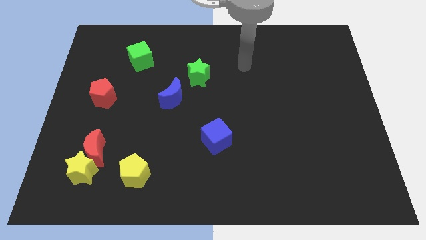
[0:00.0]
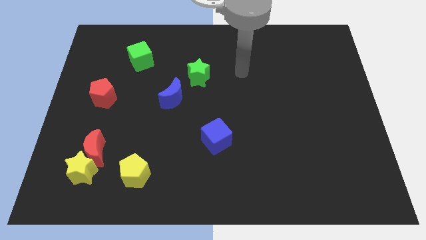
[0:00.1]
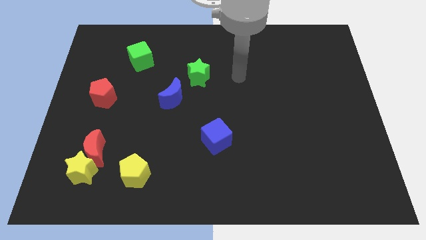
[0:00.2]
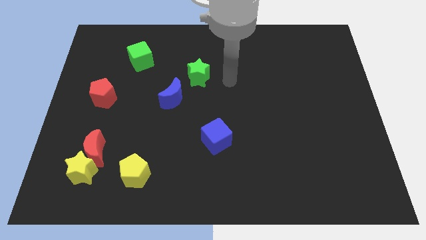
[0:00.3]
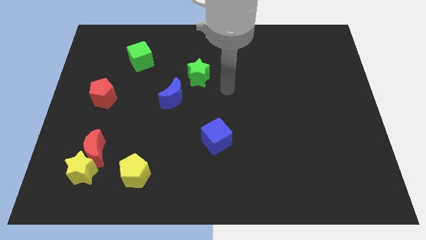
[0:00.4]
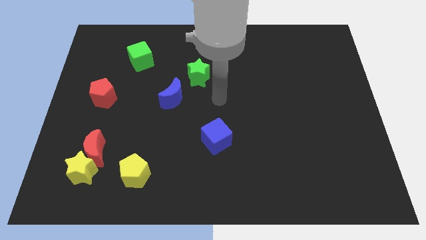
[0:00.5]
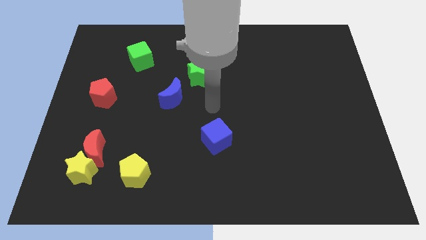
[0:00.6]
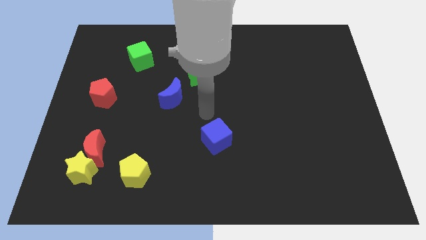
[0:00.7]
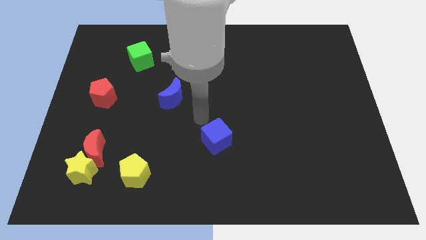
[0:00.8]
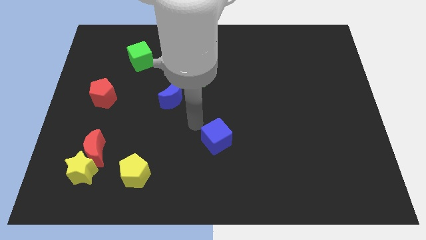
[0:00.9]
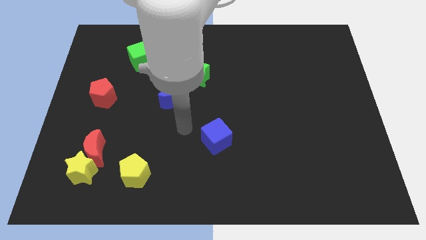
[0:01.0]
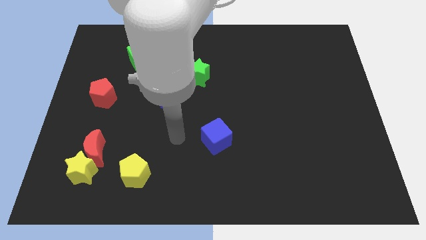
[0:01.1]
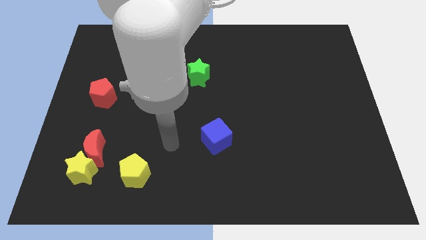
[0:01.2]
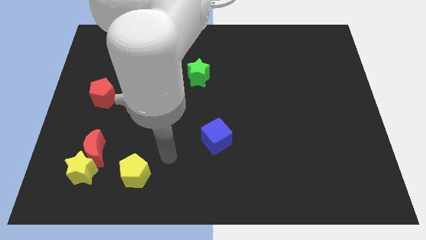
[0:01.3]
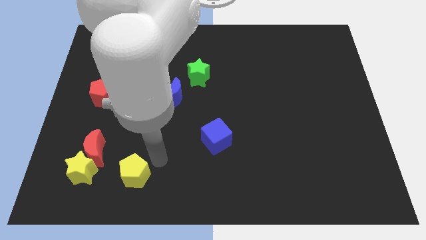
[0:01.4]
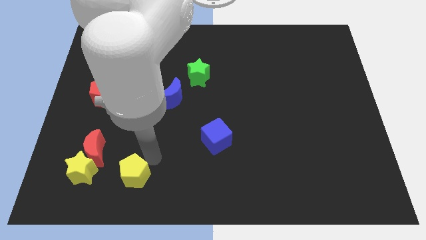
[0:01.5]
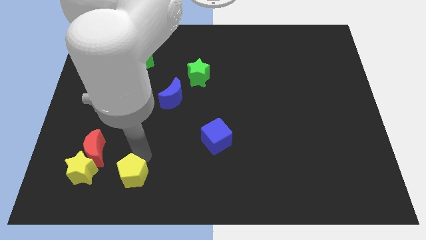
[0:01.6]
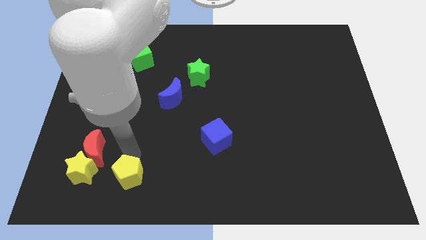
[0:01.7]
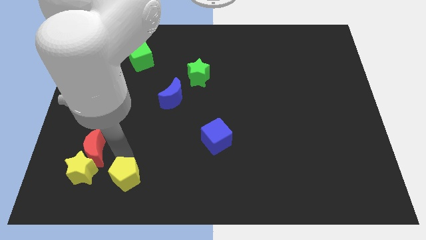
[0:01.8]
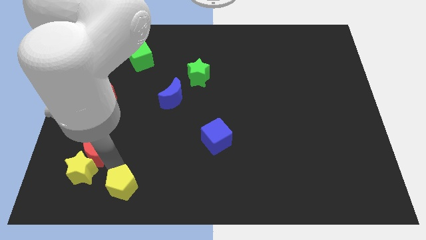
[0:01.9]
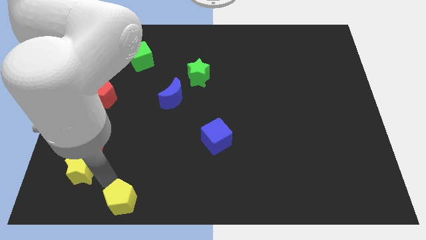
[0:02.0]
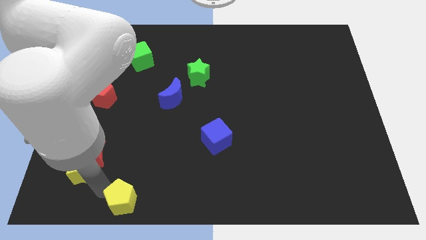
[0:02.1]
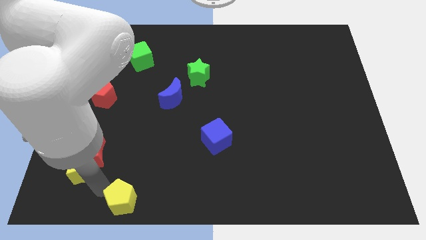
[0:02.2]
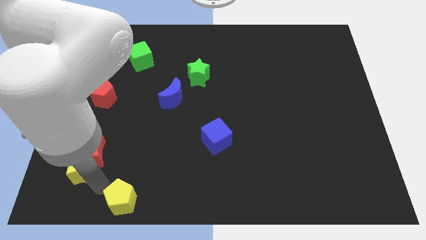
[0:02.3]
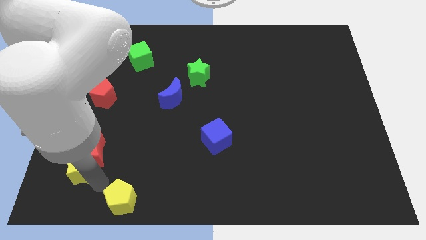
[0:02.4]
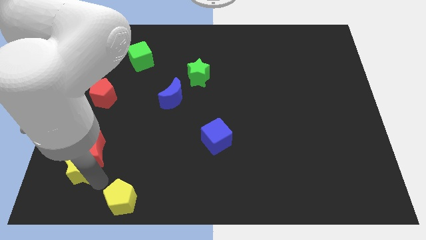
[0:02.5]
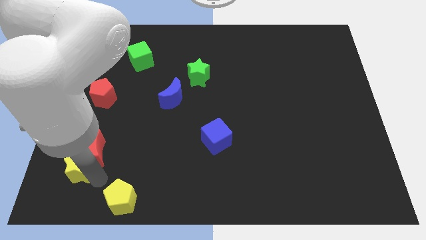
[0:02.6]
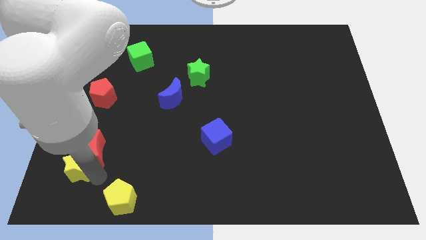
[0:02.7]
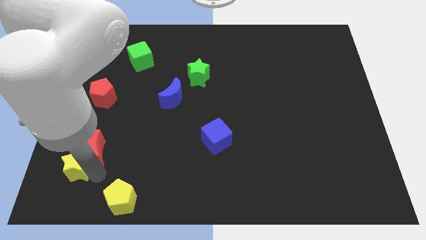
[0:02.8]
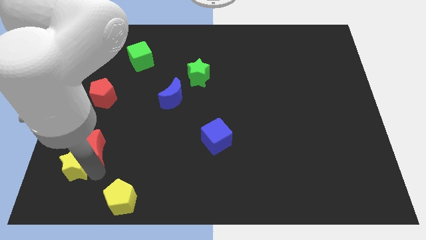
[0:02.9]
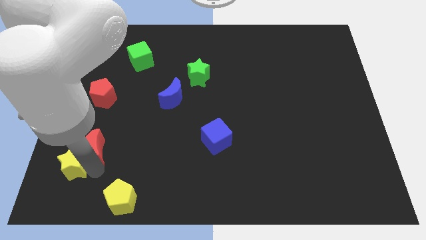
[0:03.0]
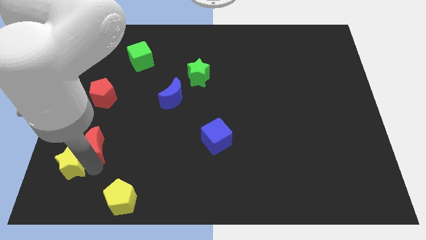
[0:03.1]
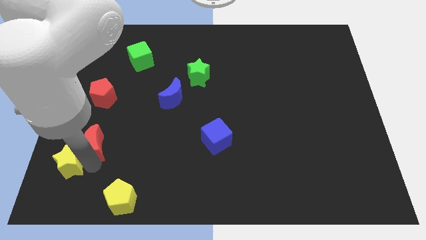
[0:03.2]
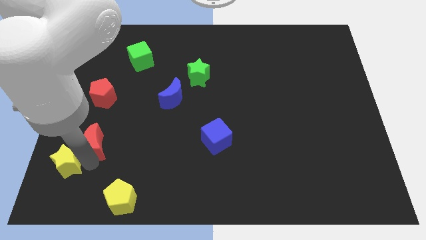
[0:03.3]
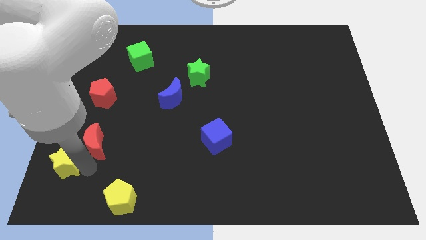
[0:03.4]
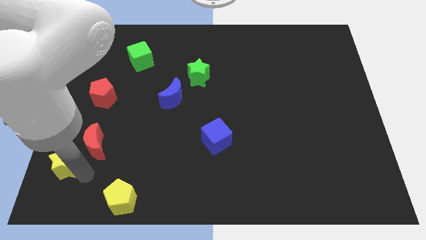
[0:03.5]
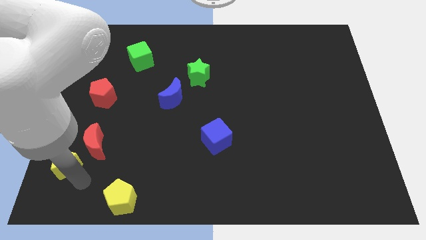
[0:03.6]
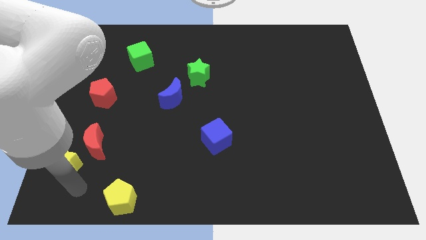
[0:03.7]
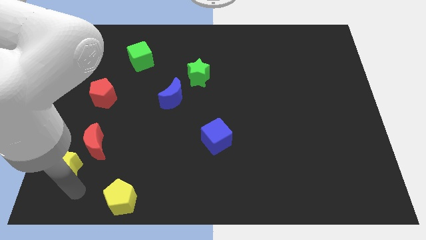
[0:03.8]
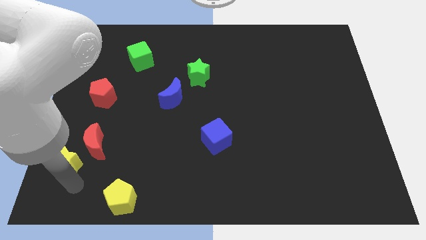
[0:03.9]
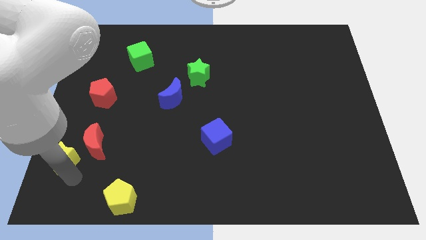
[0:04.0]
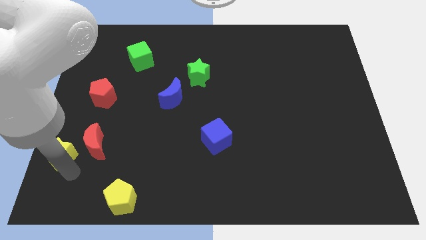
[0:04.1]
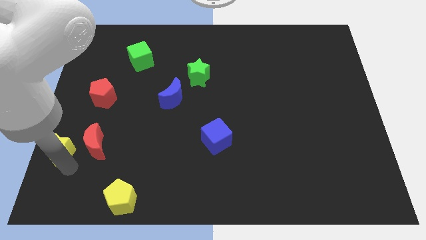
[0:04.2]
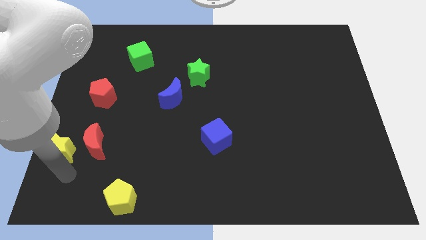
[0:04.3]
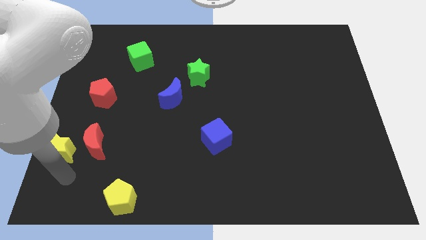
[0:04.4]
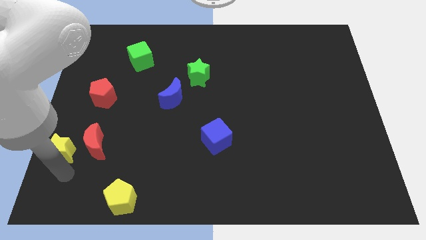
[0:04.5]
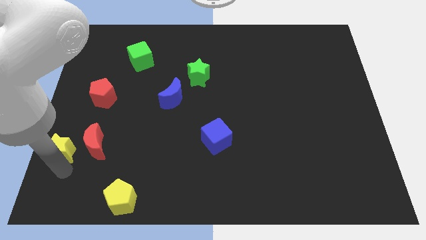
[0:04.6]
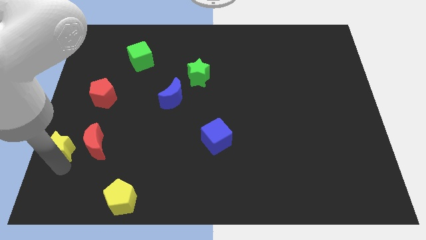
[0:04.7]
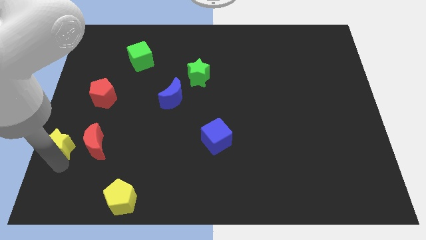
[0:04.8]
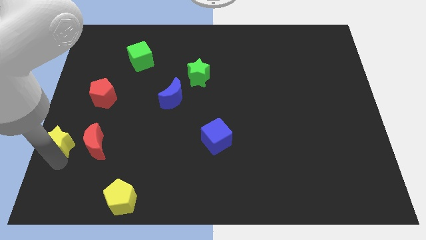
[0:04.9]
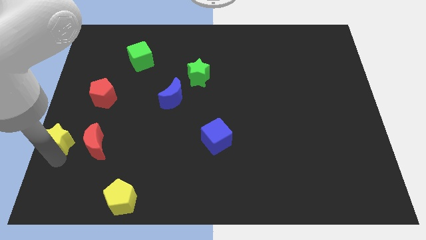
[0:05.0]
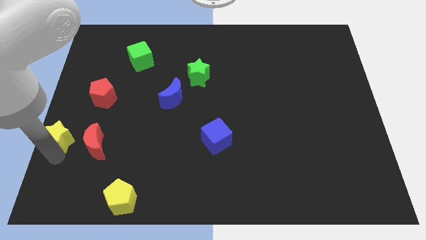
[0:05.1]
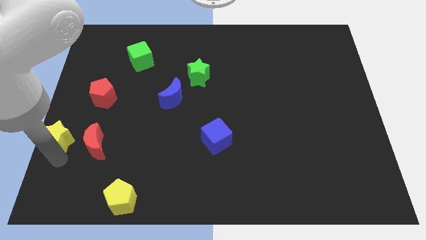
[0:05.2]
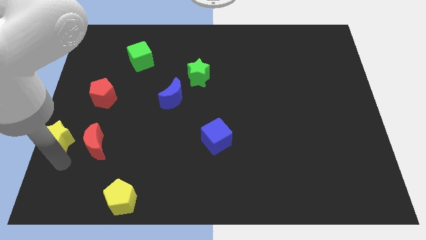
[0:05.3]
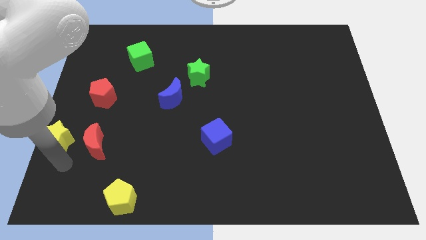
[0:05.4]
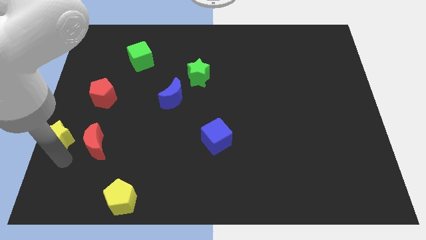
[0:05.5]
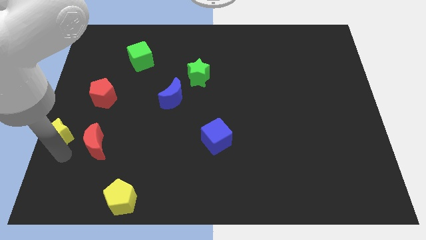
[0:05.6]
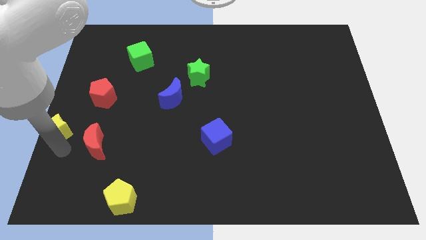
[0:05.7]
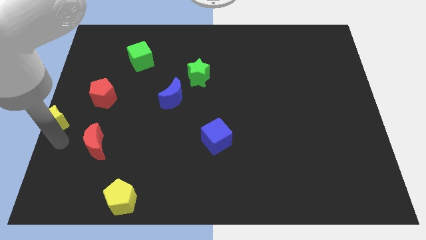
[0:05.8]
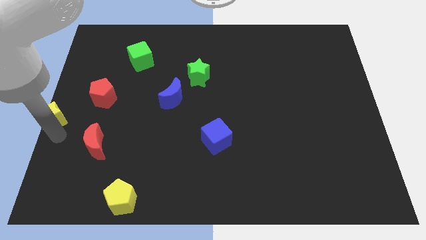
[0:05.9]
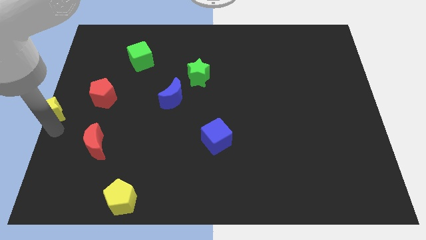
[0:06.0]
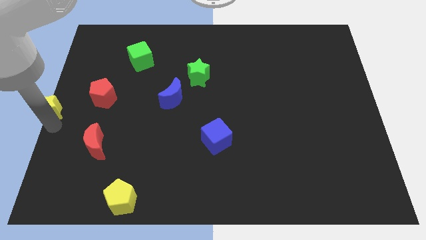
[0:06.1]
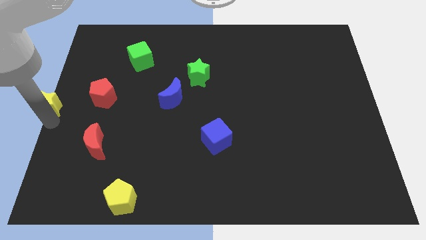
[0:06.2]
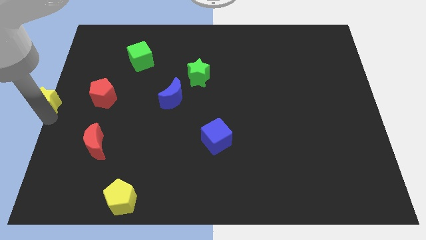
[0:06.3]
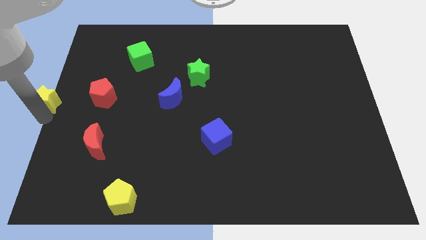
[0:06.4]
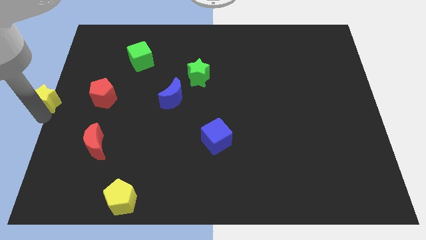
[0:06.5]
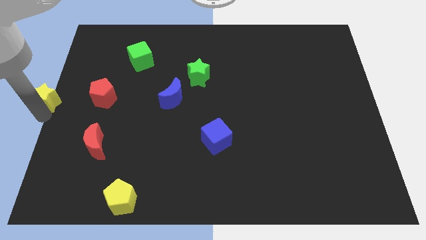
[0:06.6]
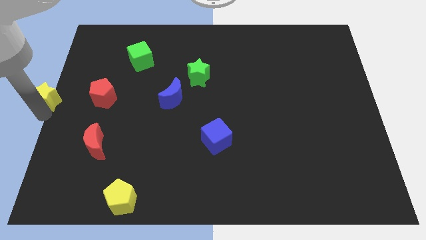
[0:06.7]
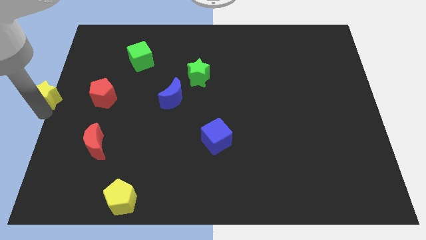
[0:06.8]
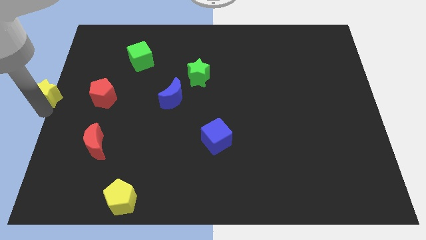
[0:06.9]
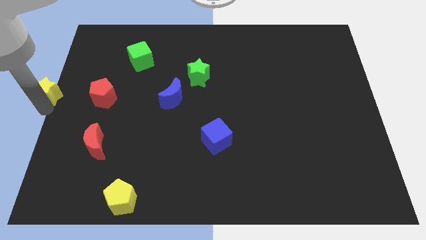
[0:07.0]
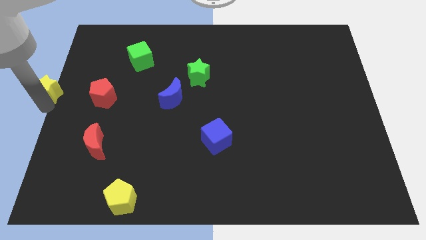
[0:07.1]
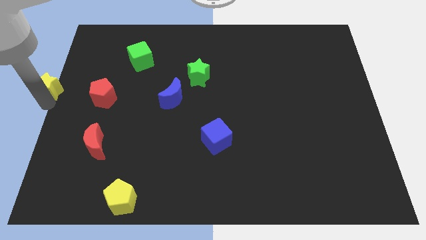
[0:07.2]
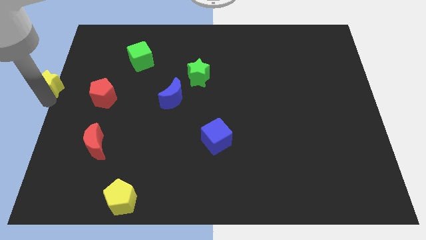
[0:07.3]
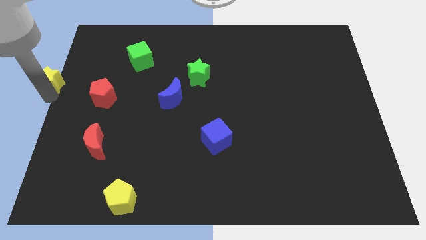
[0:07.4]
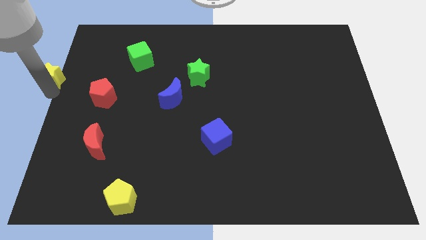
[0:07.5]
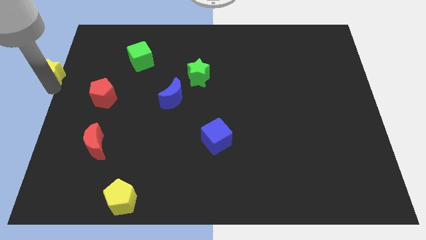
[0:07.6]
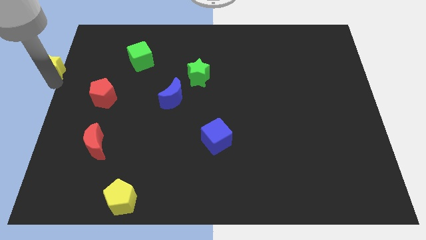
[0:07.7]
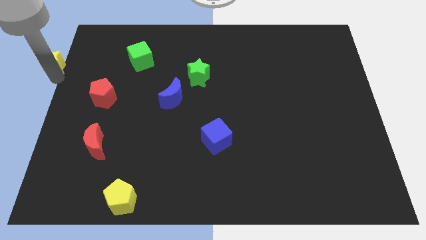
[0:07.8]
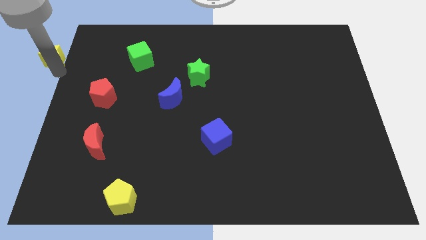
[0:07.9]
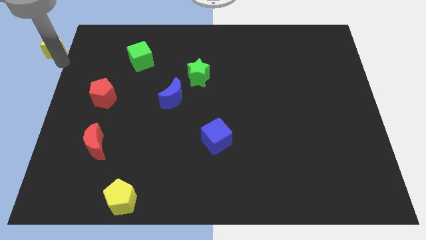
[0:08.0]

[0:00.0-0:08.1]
move the yellow star to the upper left corner
